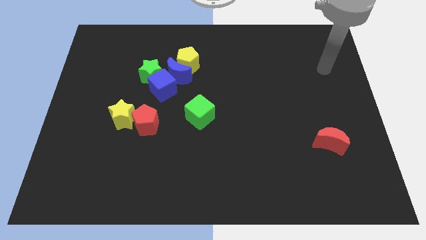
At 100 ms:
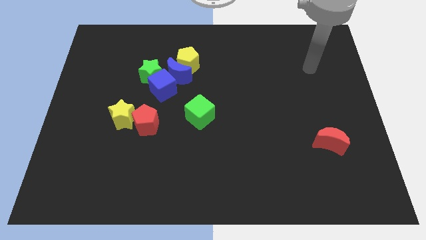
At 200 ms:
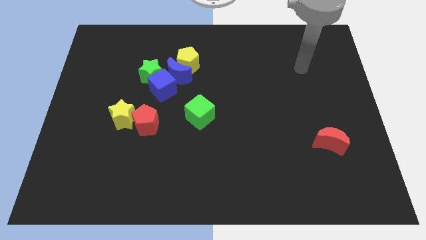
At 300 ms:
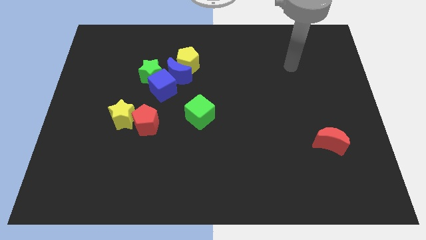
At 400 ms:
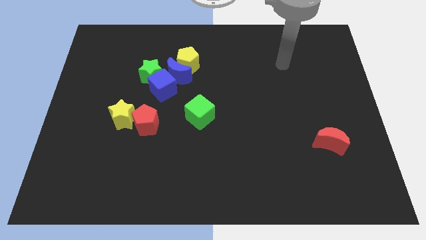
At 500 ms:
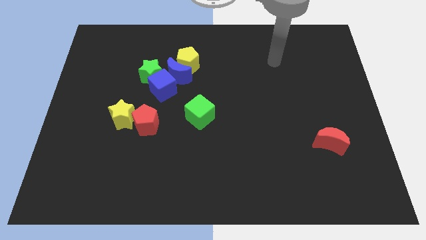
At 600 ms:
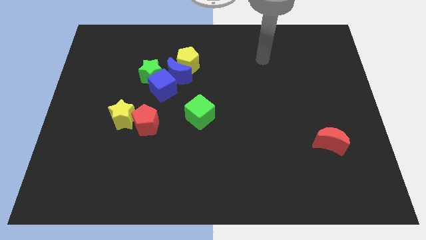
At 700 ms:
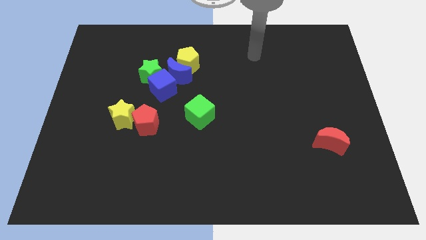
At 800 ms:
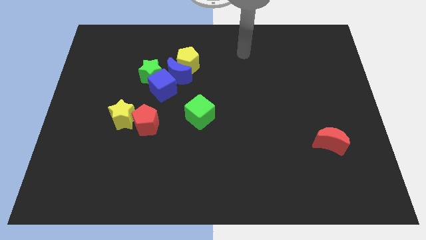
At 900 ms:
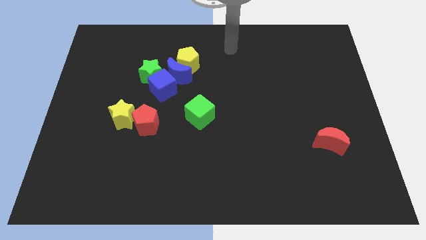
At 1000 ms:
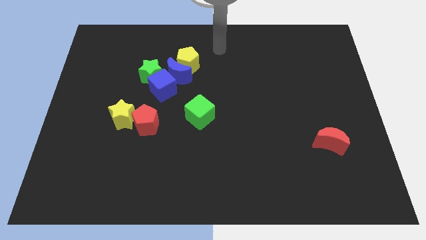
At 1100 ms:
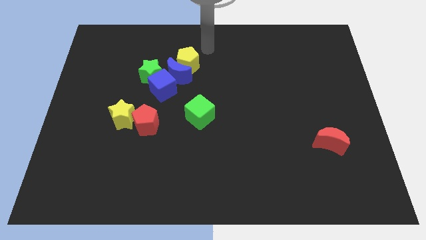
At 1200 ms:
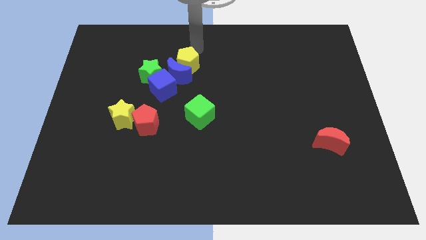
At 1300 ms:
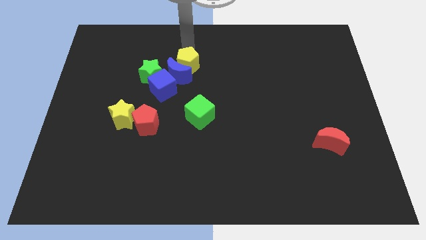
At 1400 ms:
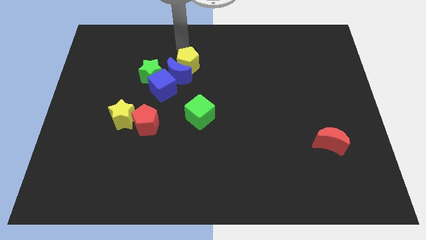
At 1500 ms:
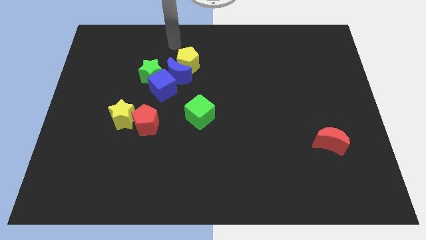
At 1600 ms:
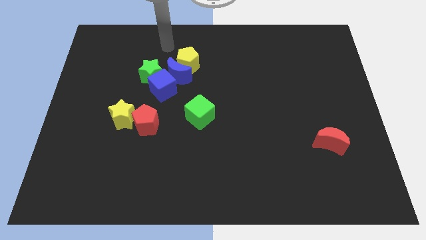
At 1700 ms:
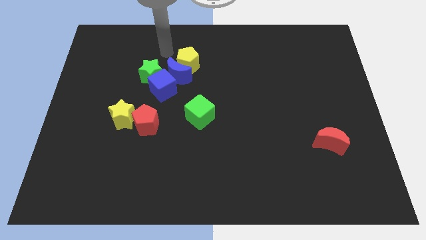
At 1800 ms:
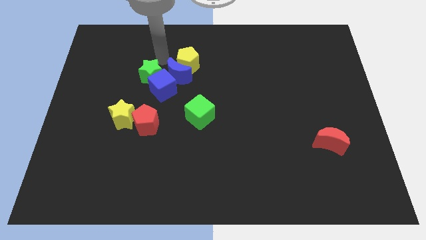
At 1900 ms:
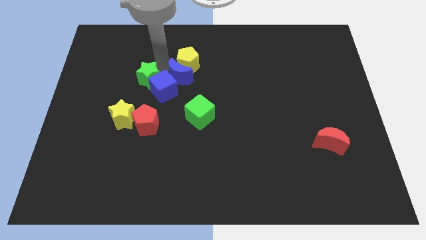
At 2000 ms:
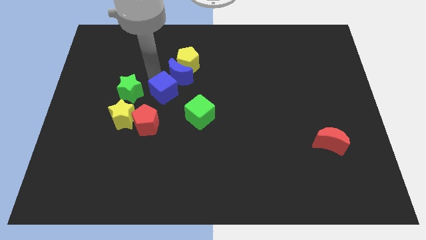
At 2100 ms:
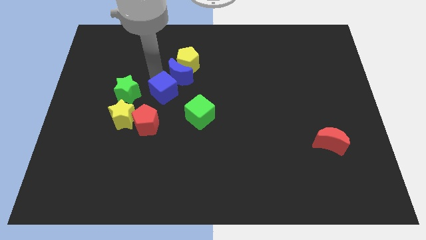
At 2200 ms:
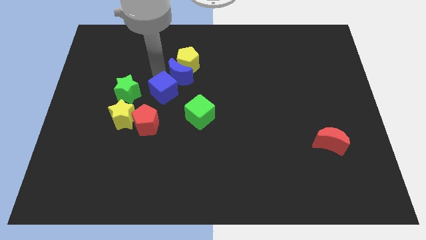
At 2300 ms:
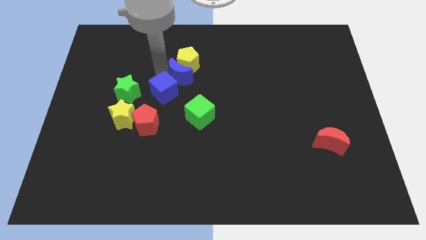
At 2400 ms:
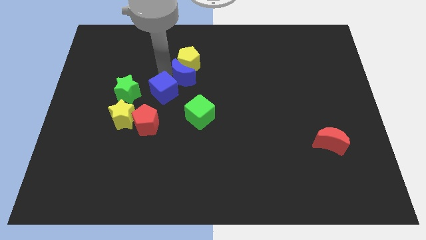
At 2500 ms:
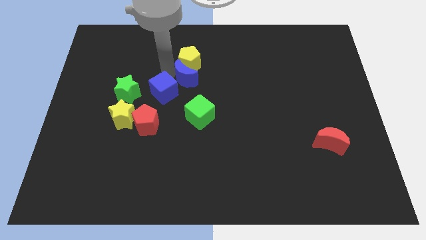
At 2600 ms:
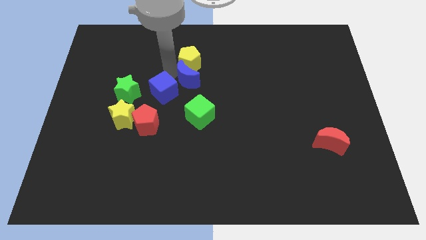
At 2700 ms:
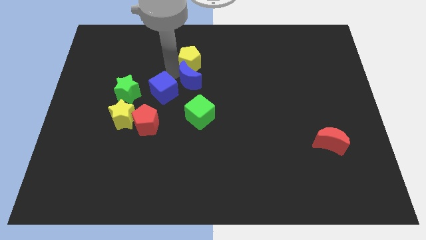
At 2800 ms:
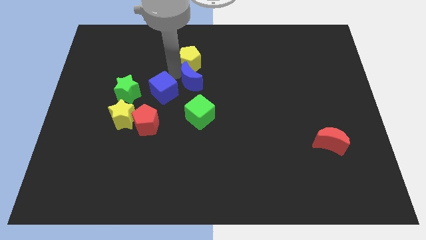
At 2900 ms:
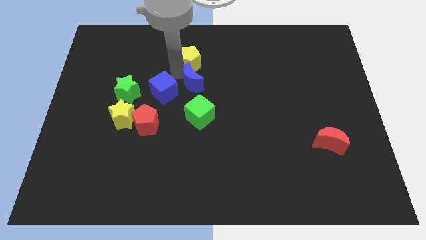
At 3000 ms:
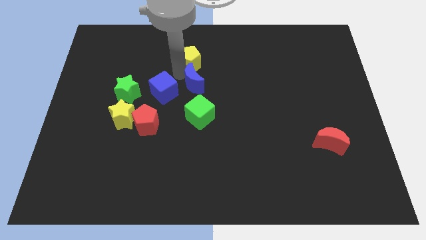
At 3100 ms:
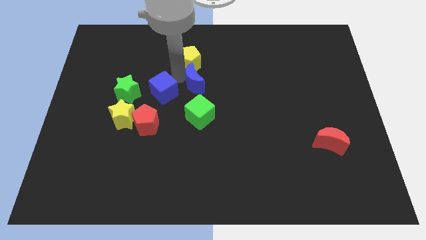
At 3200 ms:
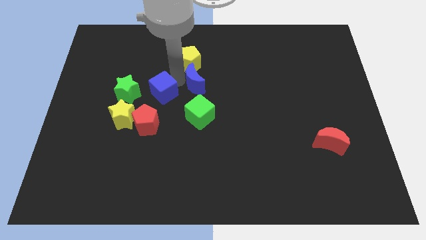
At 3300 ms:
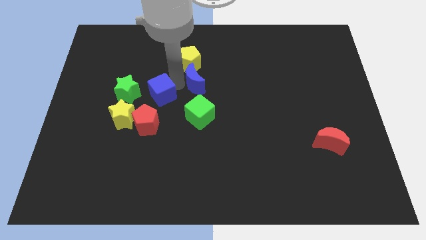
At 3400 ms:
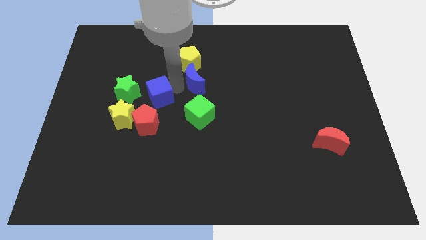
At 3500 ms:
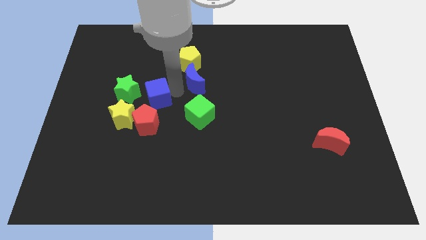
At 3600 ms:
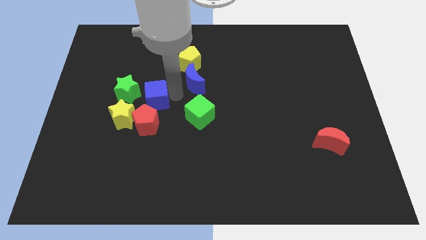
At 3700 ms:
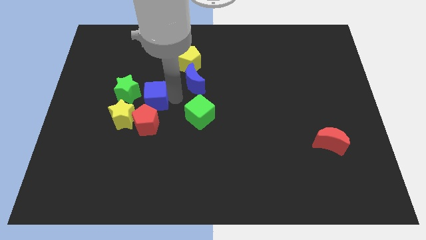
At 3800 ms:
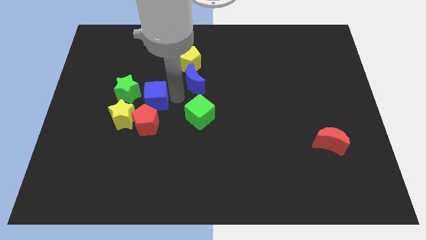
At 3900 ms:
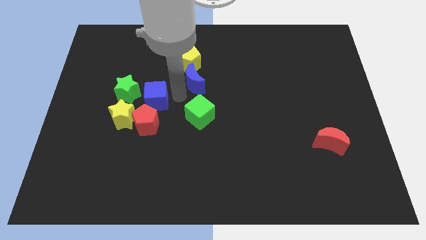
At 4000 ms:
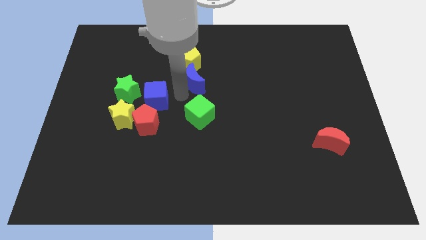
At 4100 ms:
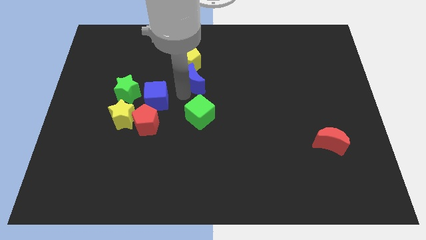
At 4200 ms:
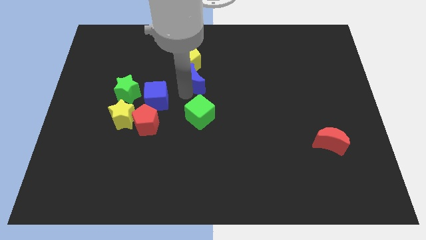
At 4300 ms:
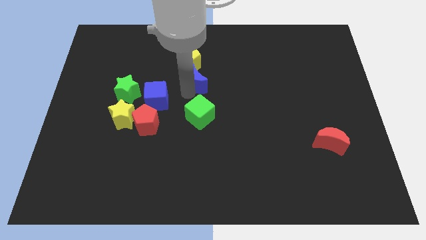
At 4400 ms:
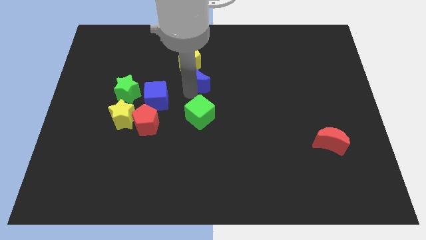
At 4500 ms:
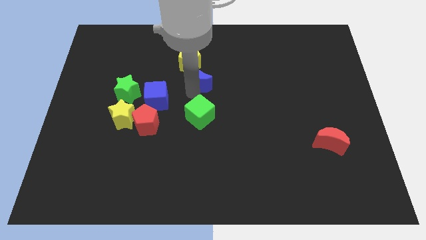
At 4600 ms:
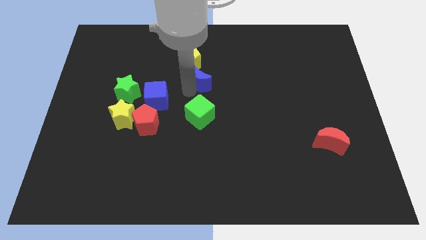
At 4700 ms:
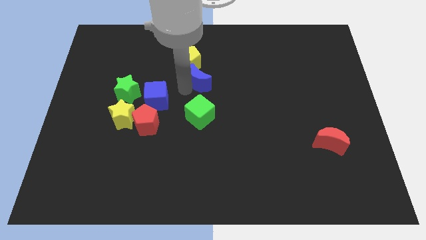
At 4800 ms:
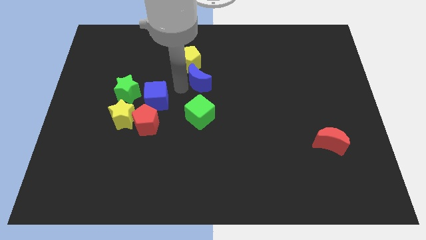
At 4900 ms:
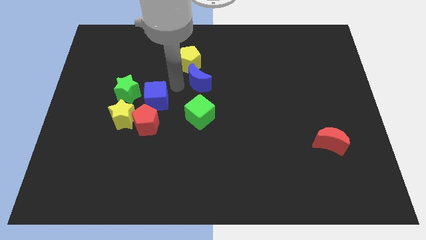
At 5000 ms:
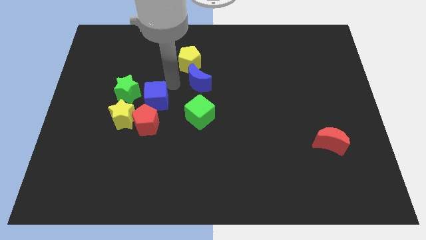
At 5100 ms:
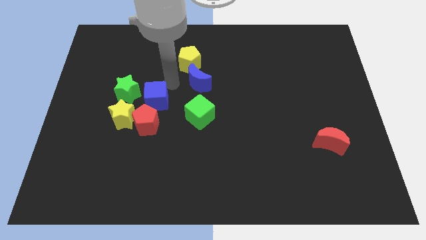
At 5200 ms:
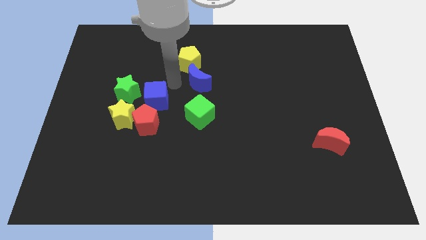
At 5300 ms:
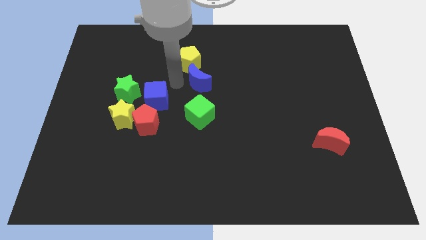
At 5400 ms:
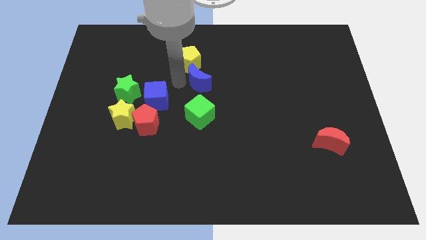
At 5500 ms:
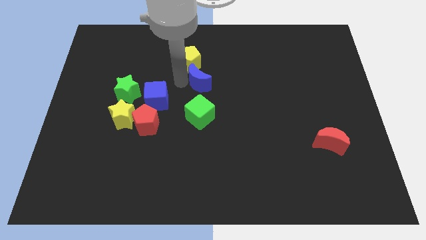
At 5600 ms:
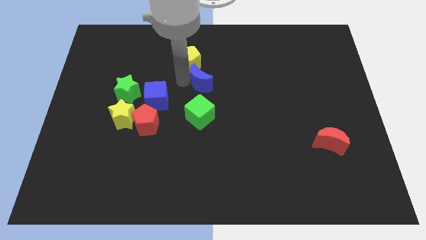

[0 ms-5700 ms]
separate the blue moon from the yellow pentagon, blue cube, and green star

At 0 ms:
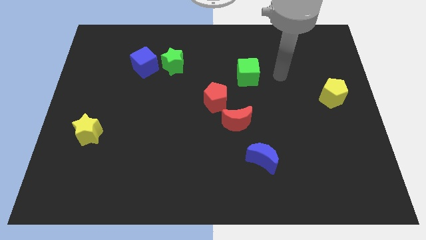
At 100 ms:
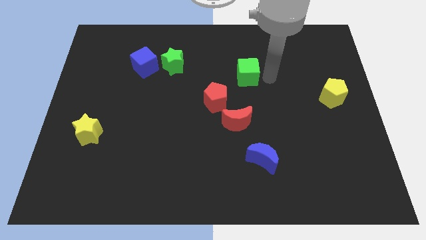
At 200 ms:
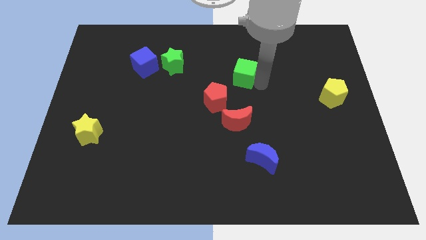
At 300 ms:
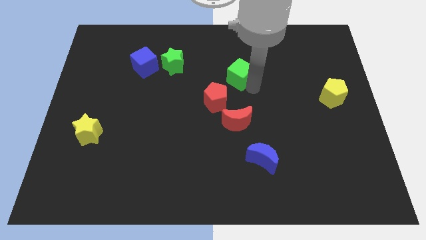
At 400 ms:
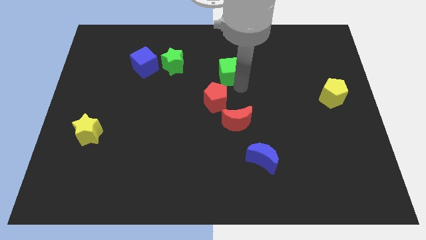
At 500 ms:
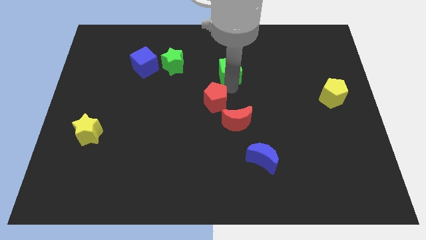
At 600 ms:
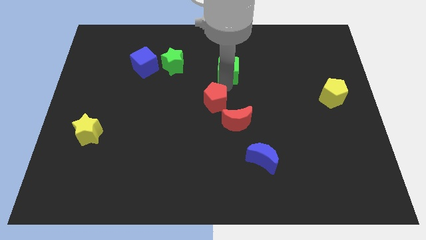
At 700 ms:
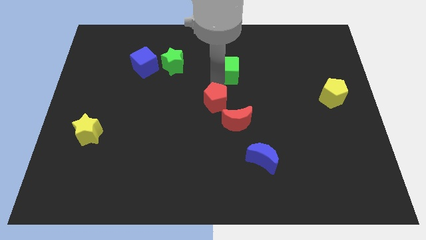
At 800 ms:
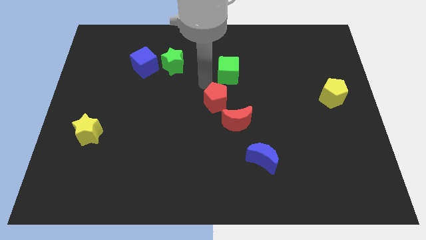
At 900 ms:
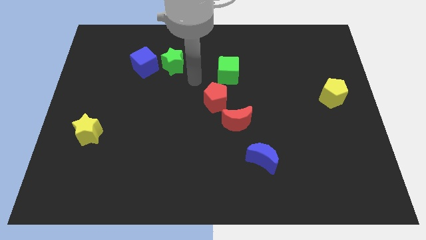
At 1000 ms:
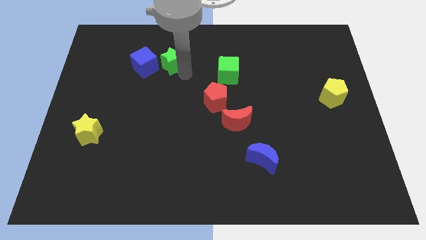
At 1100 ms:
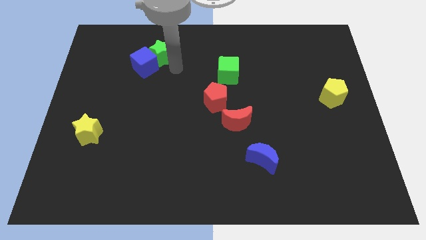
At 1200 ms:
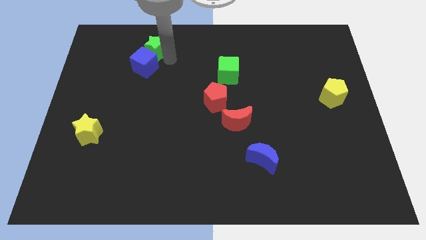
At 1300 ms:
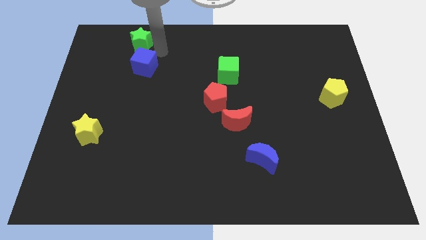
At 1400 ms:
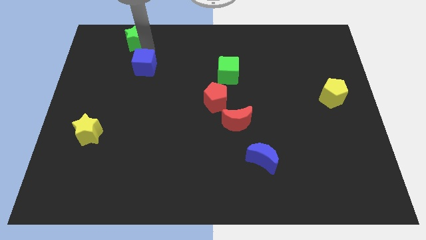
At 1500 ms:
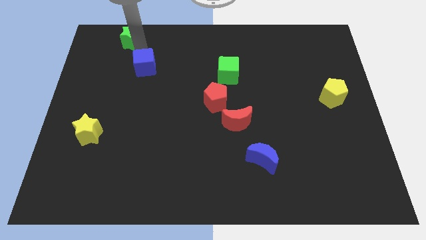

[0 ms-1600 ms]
pull the blue cube apart from the green star

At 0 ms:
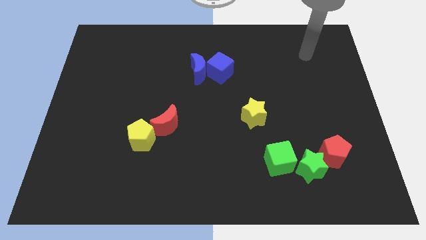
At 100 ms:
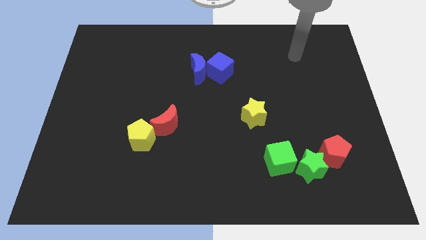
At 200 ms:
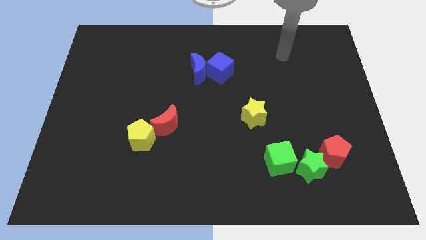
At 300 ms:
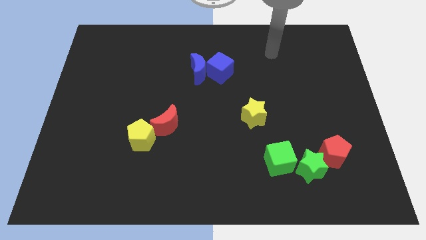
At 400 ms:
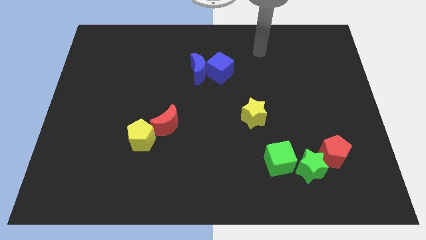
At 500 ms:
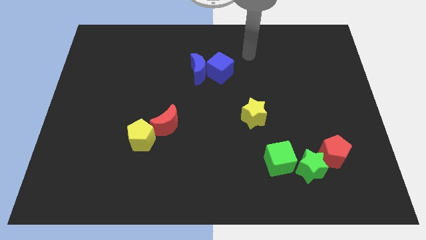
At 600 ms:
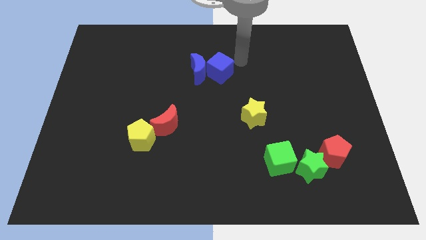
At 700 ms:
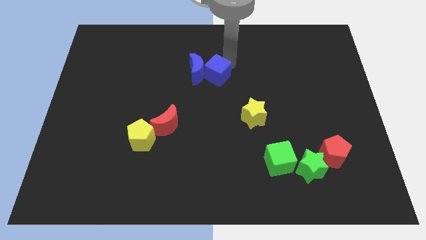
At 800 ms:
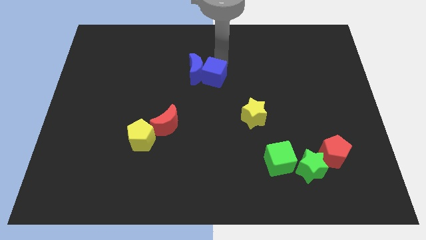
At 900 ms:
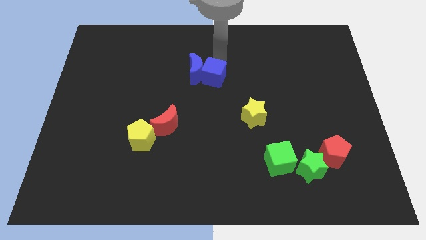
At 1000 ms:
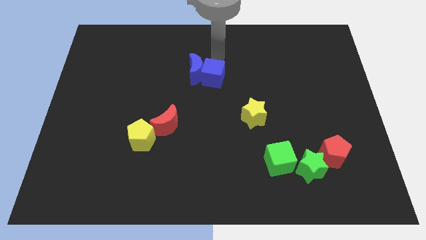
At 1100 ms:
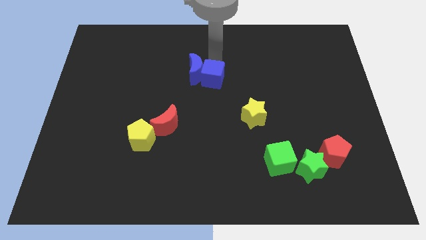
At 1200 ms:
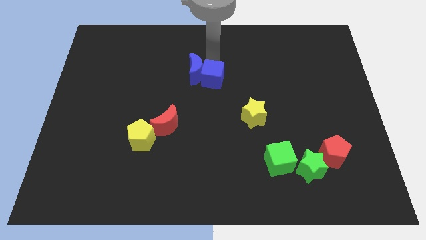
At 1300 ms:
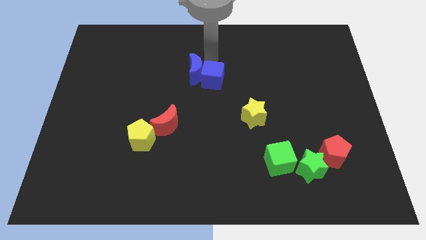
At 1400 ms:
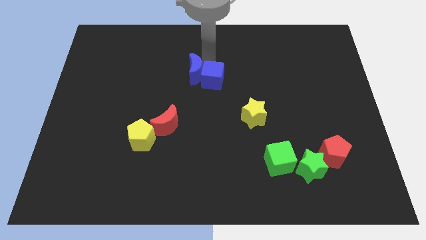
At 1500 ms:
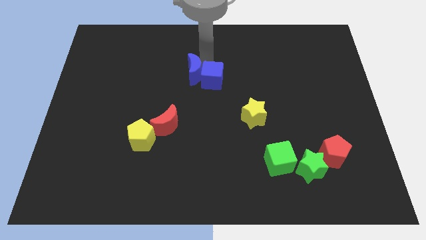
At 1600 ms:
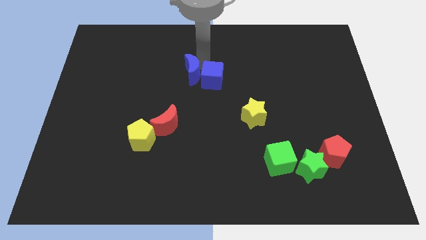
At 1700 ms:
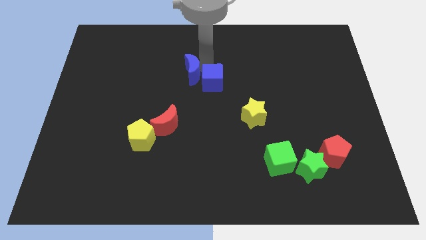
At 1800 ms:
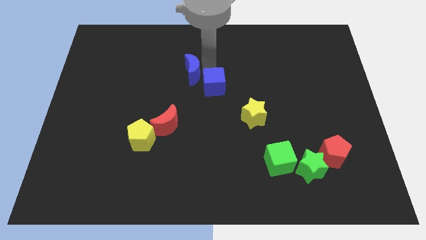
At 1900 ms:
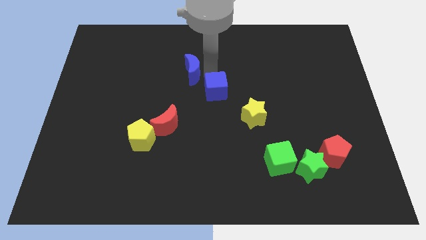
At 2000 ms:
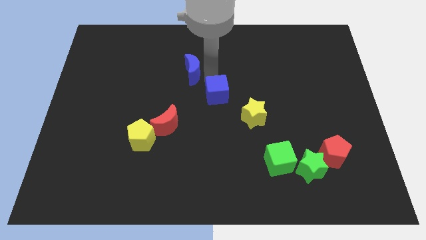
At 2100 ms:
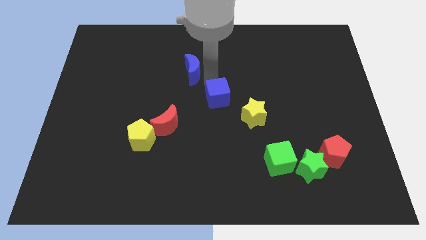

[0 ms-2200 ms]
pull the blue moon apart from the blue cube
